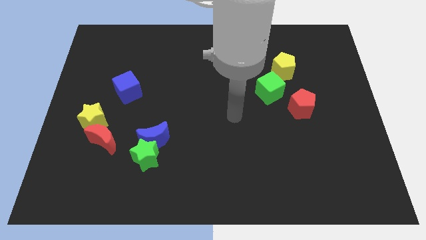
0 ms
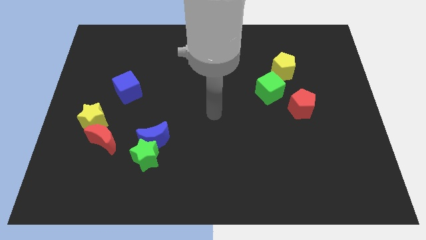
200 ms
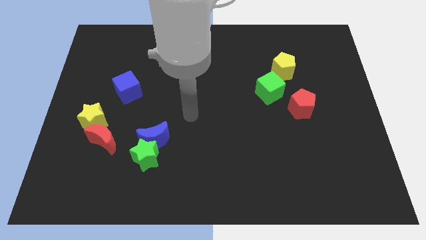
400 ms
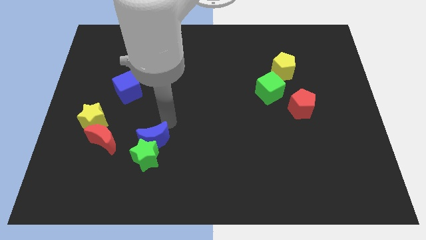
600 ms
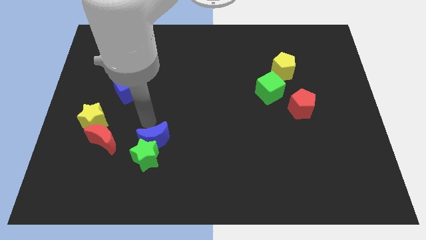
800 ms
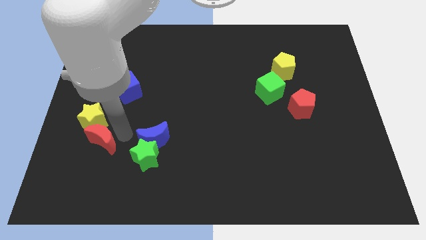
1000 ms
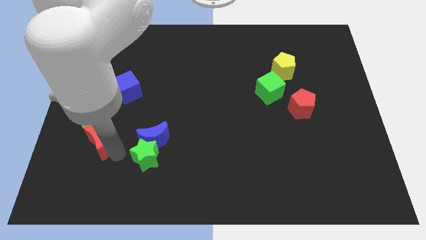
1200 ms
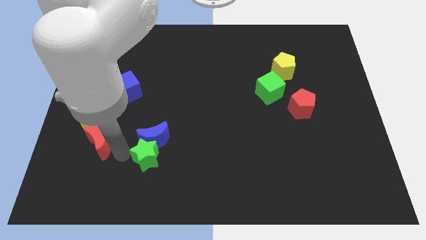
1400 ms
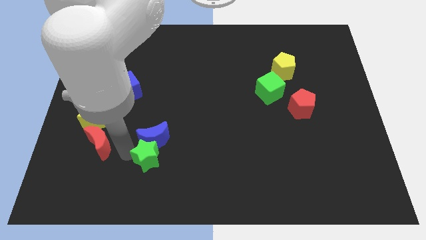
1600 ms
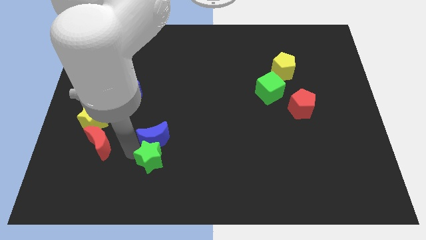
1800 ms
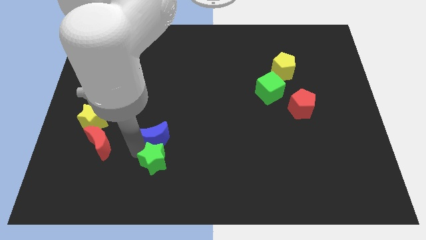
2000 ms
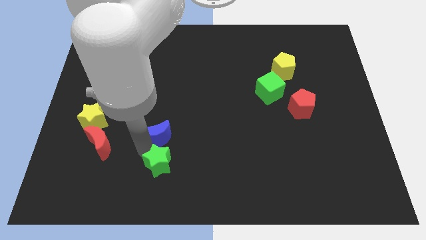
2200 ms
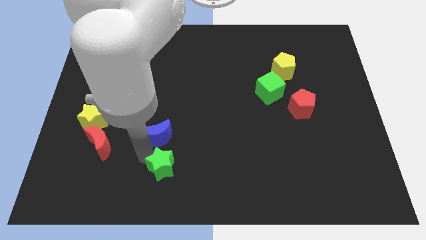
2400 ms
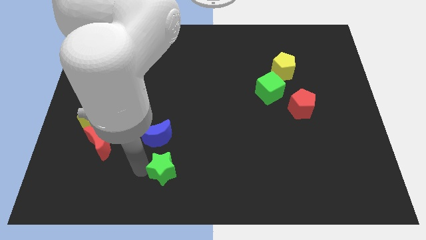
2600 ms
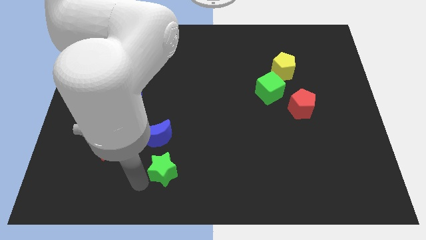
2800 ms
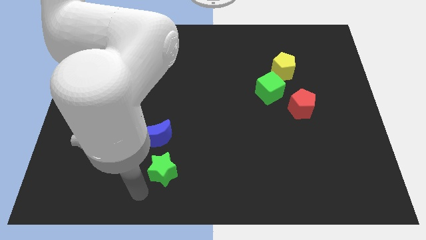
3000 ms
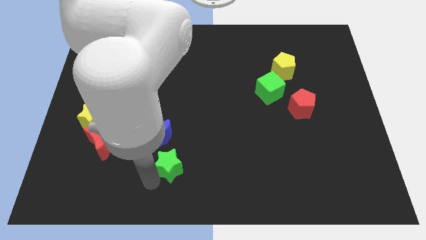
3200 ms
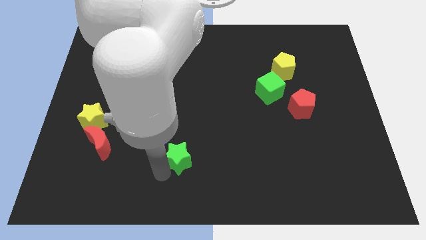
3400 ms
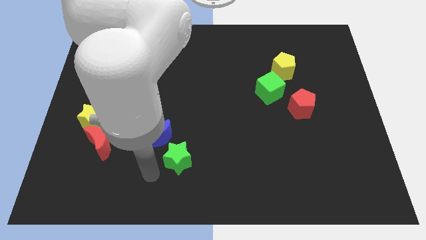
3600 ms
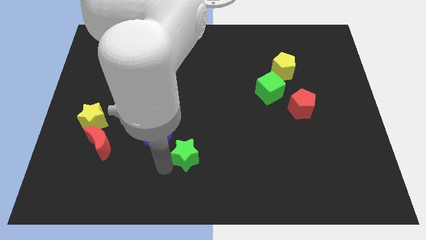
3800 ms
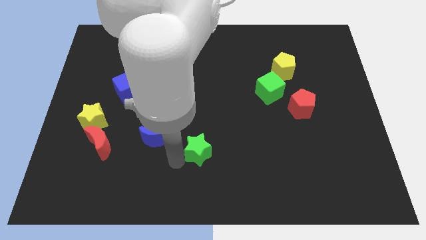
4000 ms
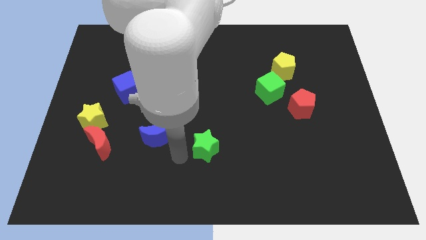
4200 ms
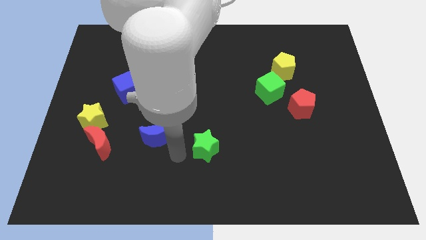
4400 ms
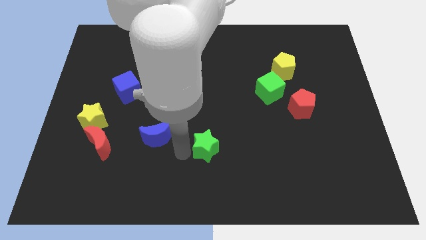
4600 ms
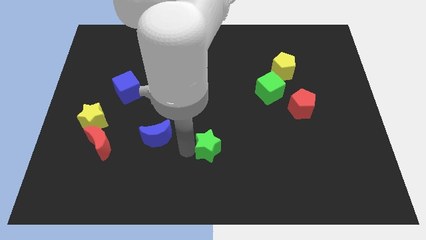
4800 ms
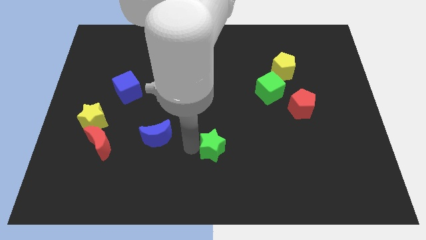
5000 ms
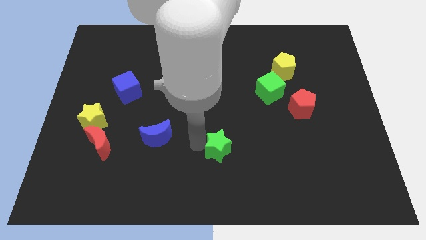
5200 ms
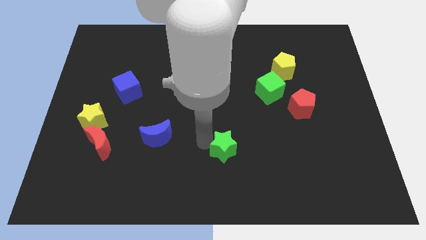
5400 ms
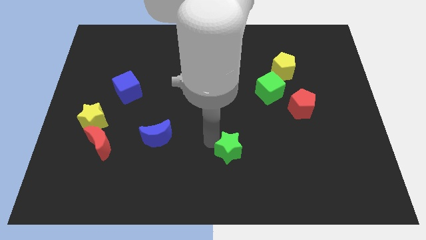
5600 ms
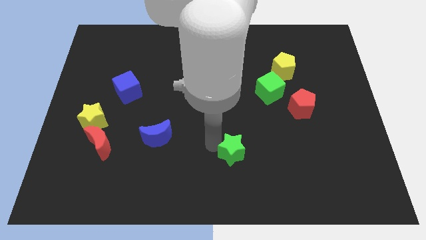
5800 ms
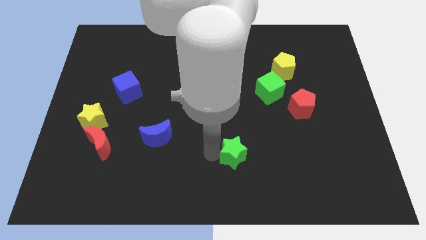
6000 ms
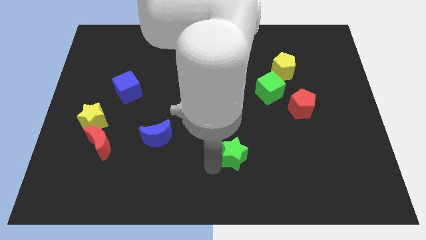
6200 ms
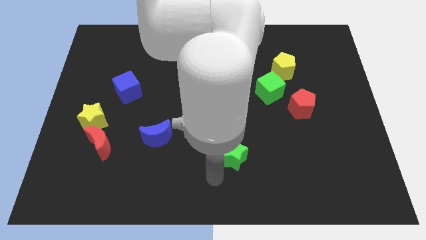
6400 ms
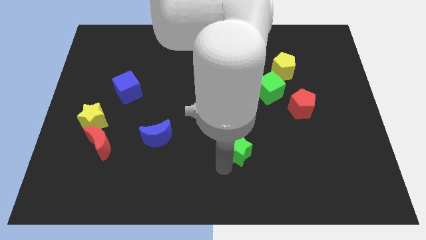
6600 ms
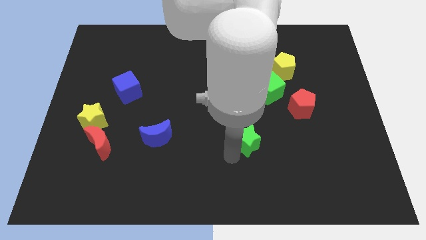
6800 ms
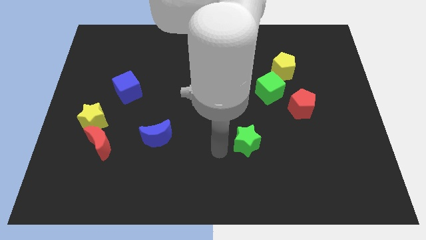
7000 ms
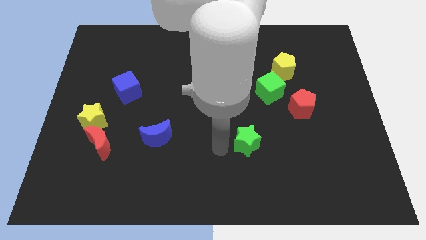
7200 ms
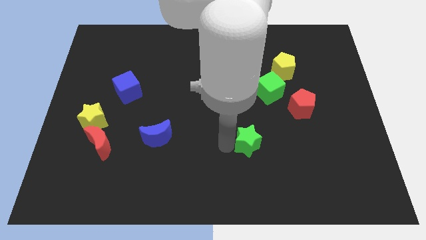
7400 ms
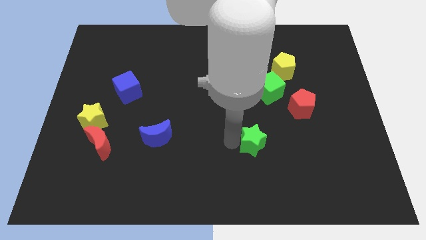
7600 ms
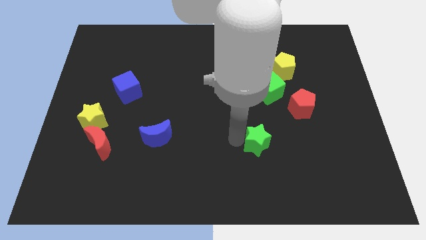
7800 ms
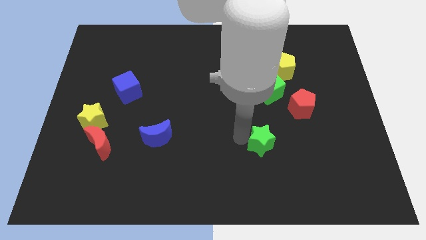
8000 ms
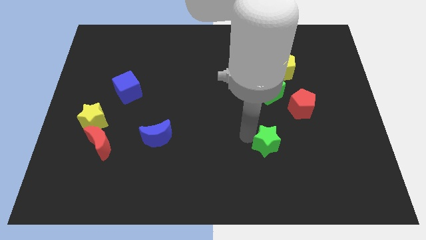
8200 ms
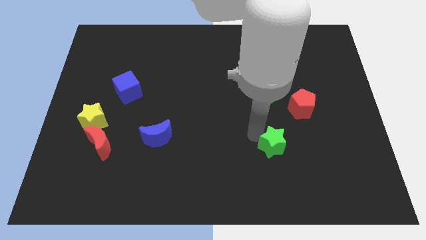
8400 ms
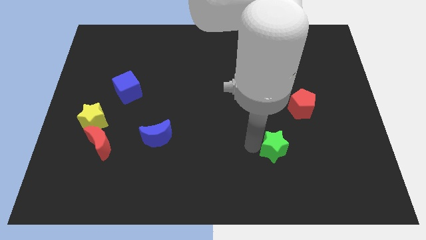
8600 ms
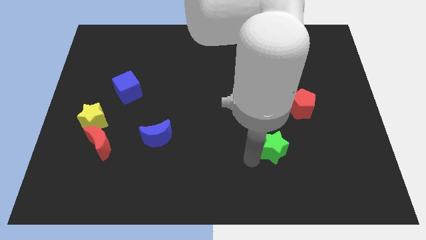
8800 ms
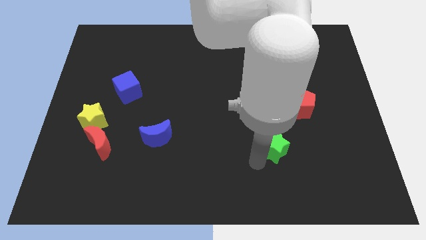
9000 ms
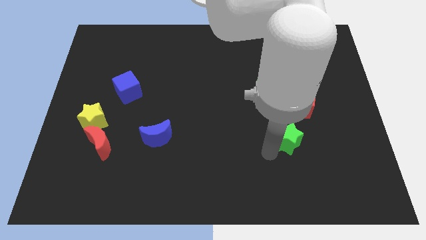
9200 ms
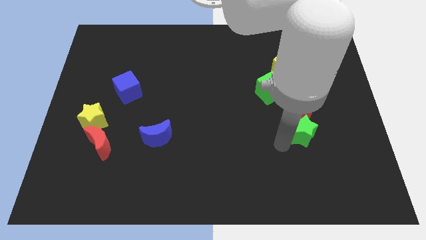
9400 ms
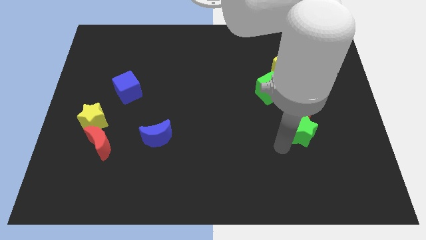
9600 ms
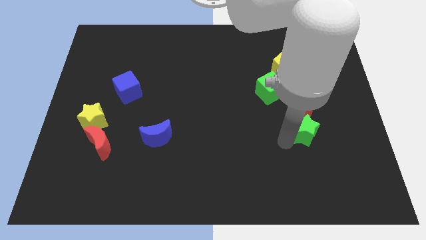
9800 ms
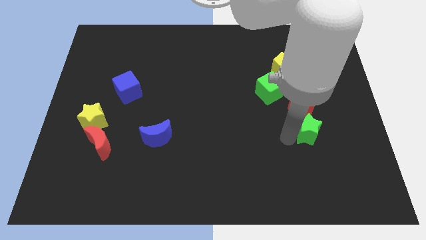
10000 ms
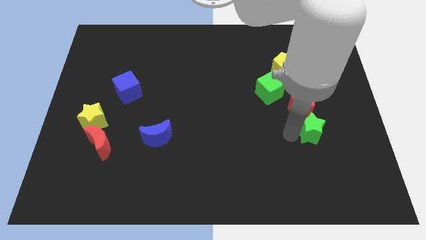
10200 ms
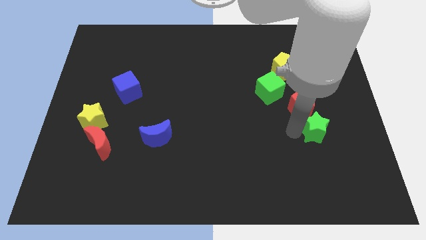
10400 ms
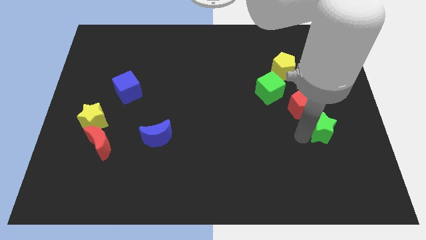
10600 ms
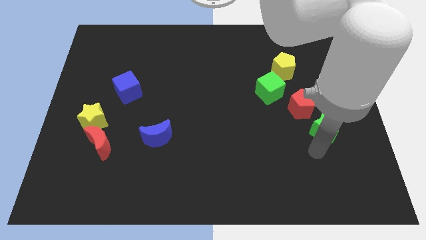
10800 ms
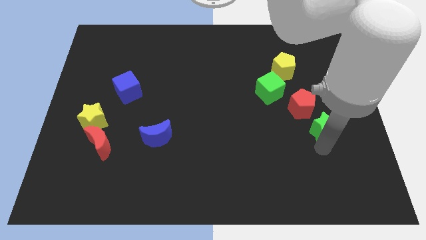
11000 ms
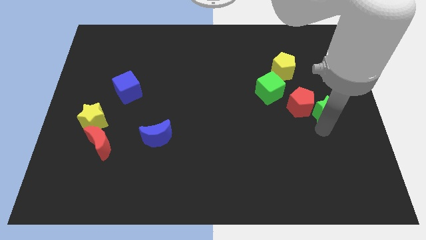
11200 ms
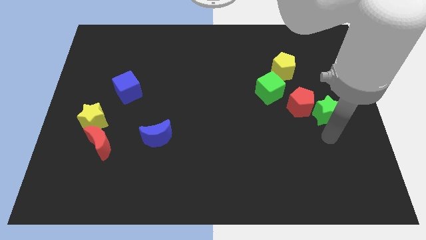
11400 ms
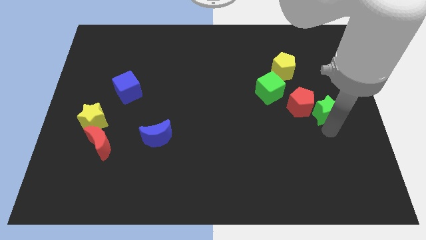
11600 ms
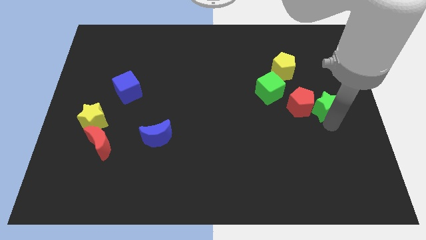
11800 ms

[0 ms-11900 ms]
move the green star to the top right side of the red pentagon

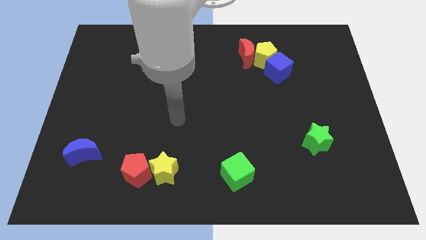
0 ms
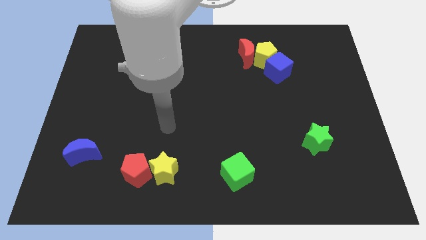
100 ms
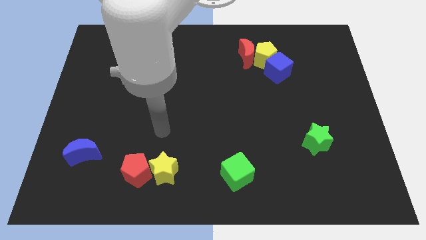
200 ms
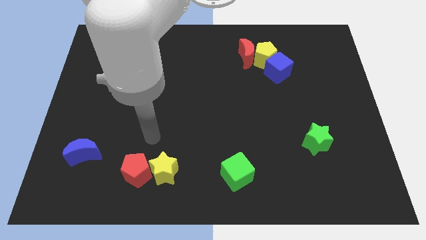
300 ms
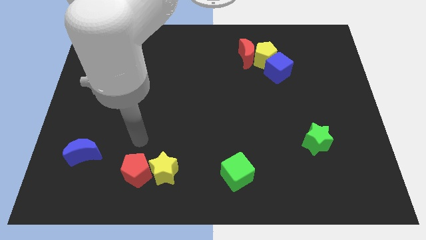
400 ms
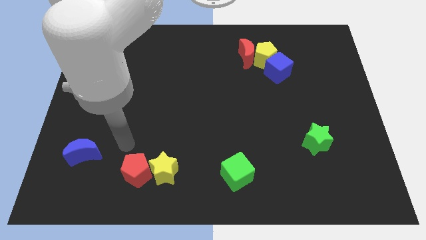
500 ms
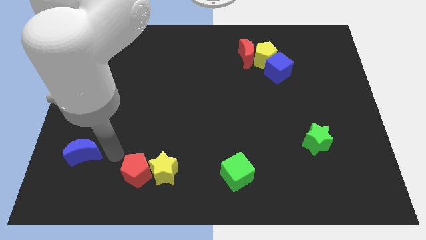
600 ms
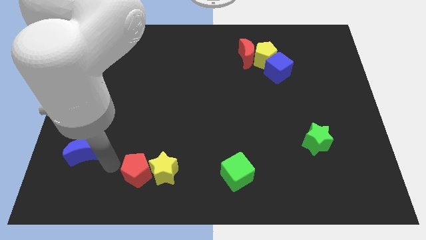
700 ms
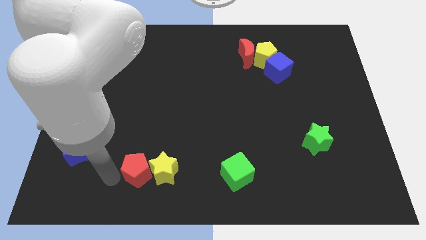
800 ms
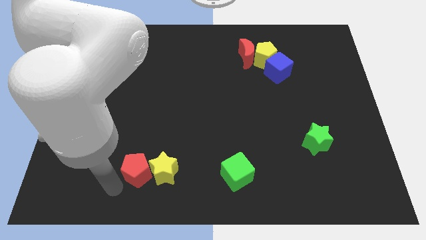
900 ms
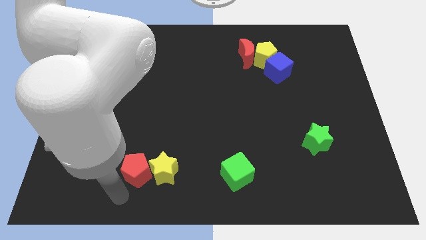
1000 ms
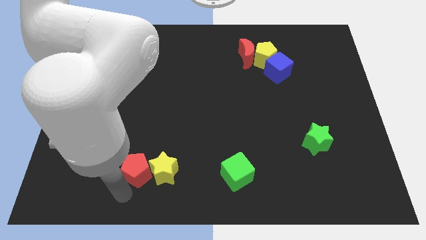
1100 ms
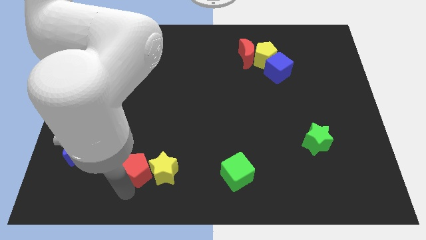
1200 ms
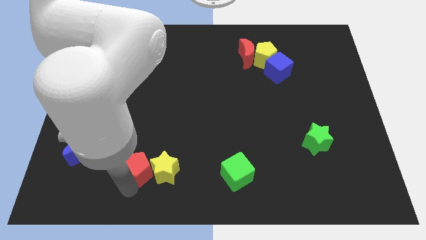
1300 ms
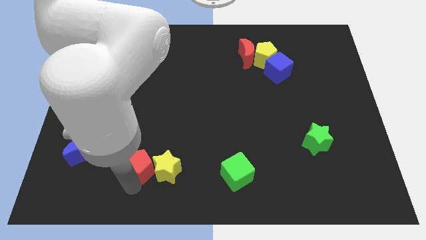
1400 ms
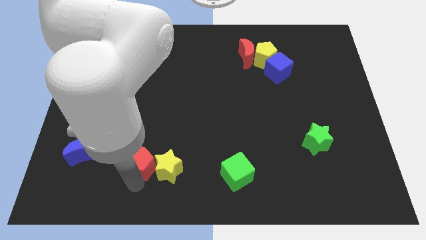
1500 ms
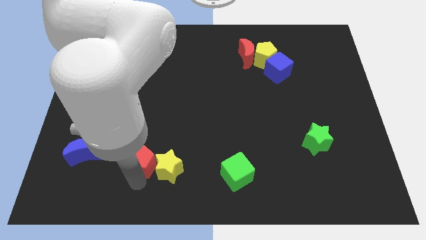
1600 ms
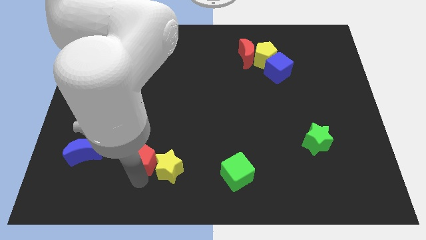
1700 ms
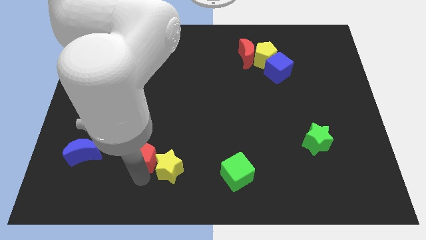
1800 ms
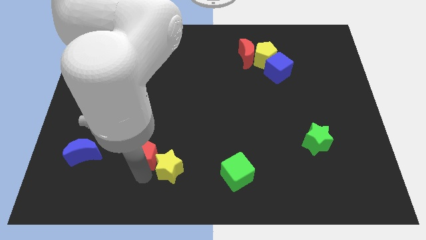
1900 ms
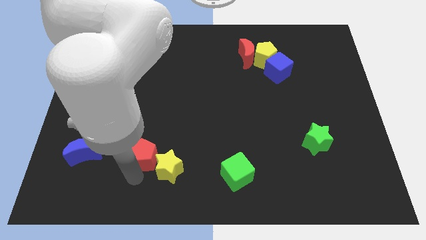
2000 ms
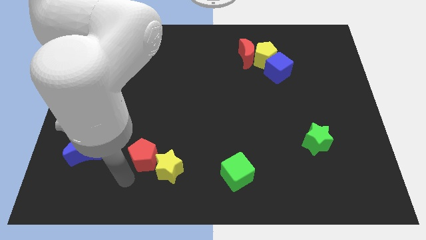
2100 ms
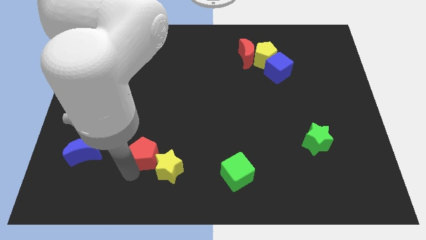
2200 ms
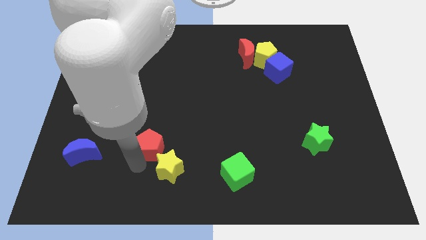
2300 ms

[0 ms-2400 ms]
move the red pentagon to the top side of the yellow star
